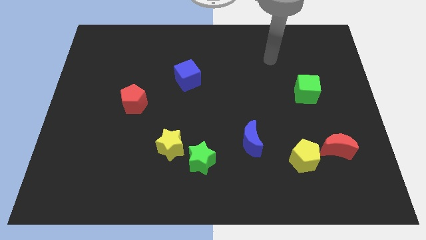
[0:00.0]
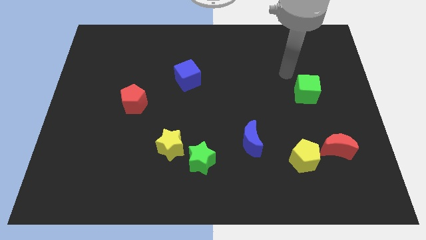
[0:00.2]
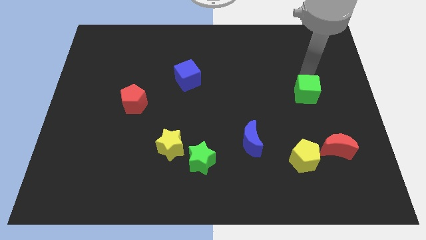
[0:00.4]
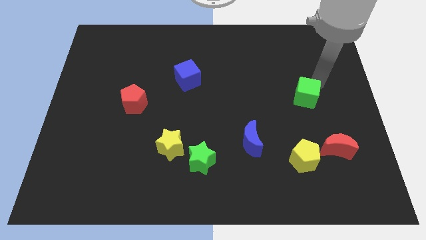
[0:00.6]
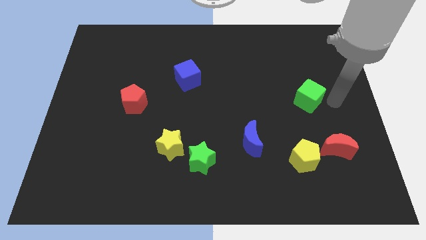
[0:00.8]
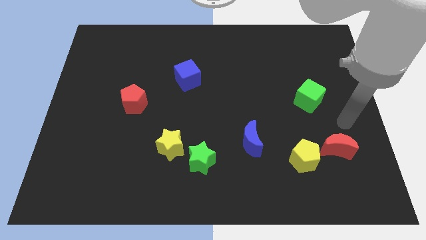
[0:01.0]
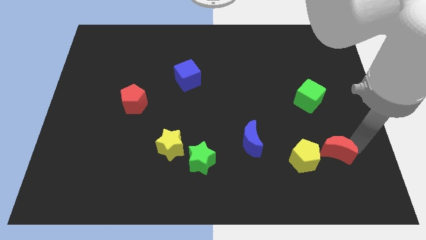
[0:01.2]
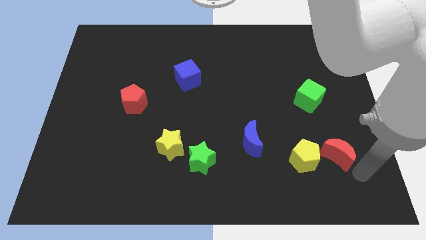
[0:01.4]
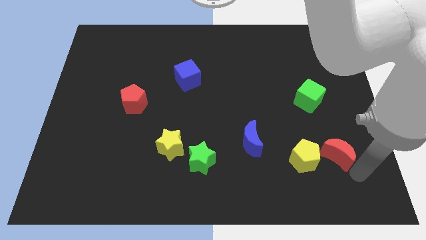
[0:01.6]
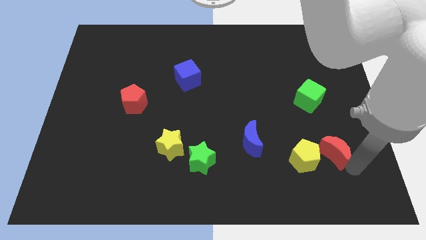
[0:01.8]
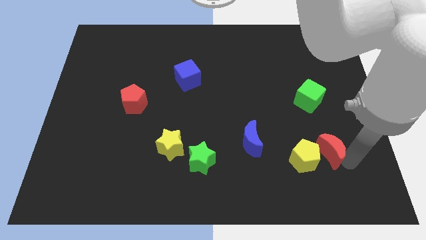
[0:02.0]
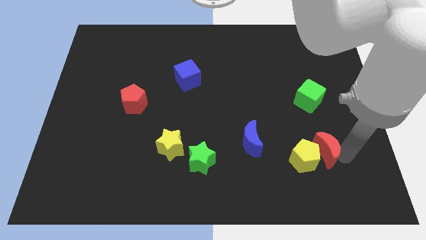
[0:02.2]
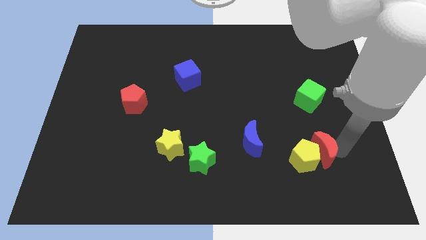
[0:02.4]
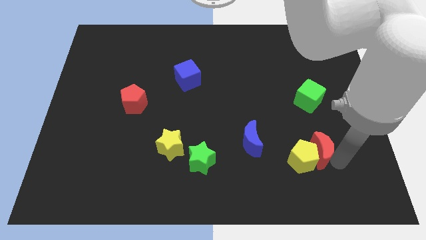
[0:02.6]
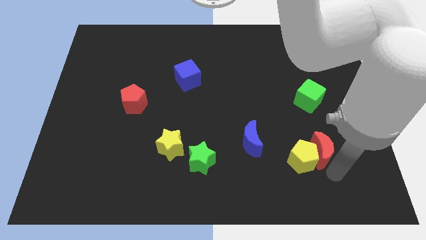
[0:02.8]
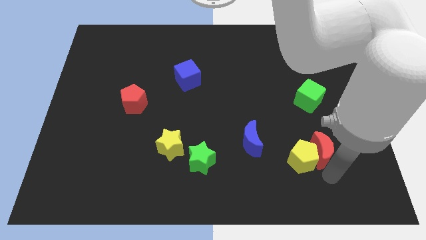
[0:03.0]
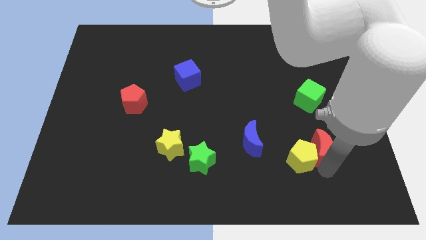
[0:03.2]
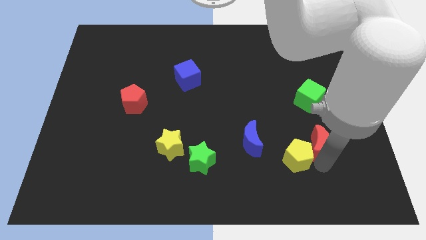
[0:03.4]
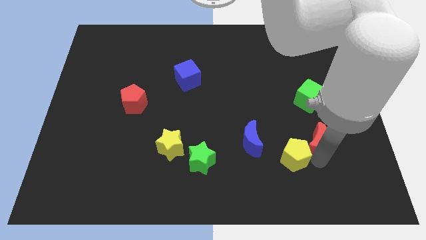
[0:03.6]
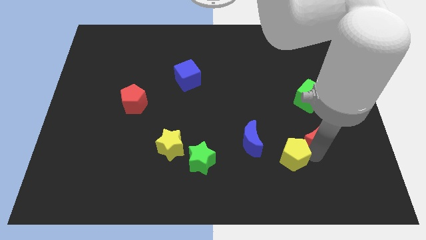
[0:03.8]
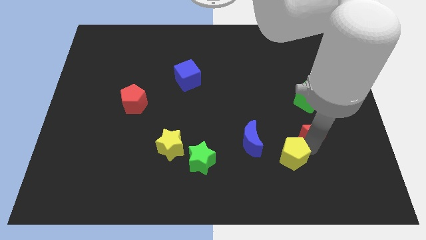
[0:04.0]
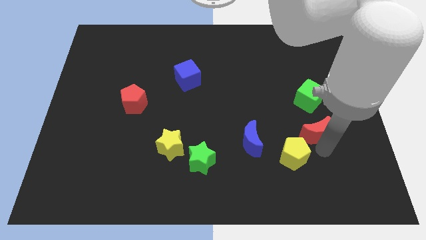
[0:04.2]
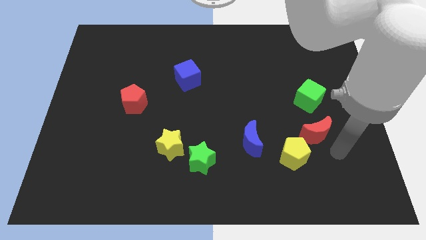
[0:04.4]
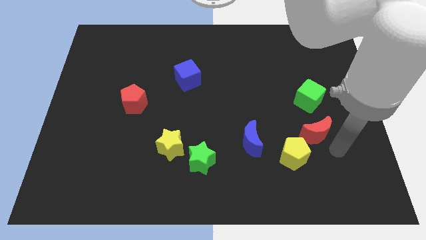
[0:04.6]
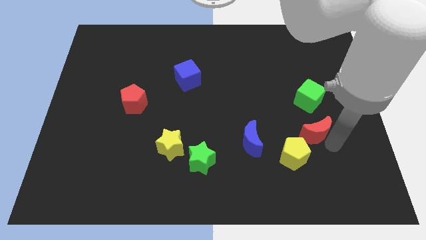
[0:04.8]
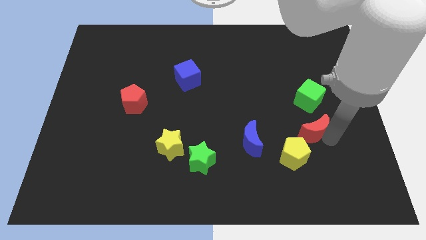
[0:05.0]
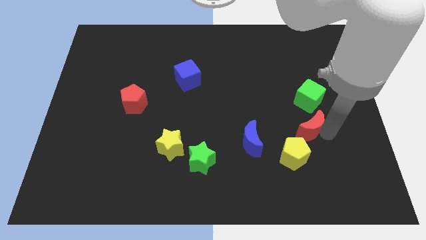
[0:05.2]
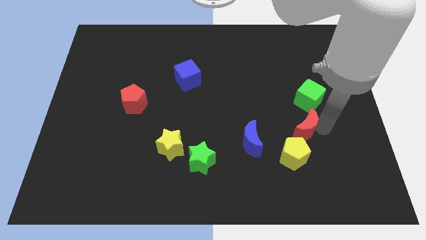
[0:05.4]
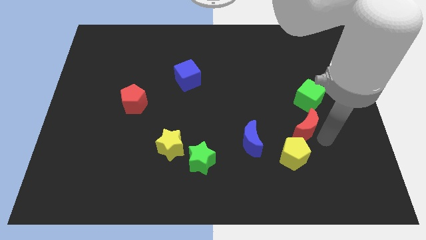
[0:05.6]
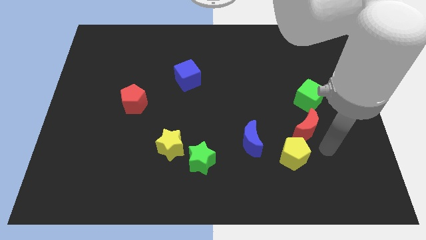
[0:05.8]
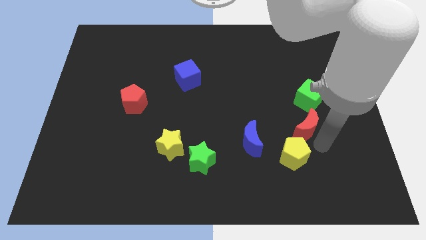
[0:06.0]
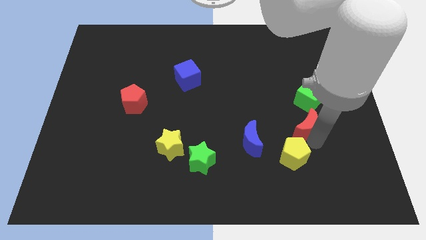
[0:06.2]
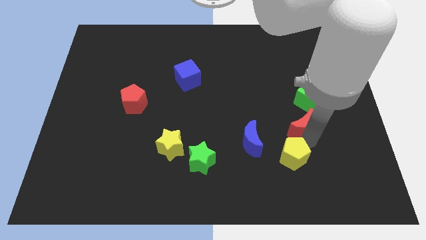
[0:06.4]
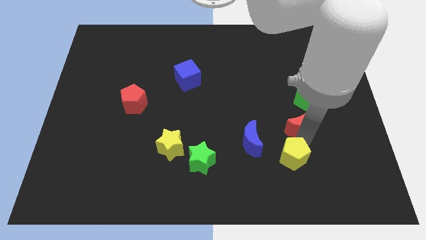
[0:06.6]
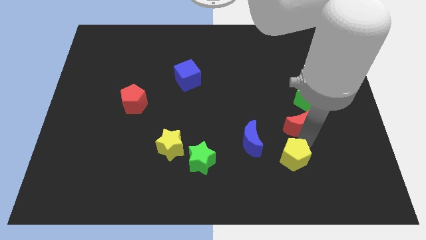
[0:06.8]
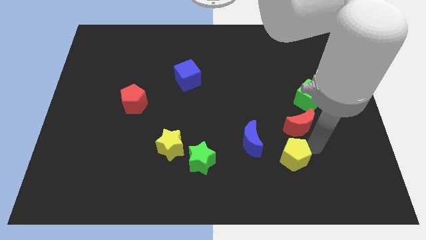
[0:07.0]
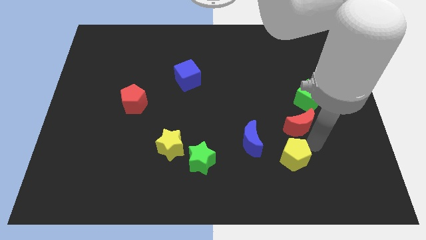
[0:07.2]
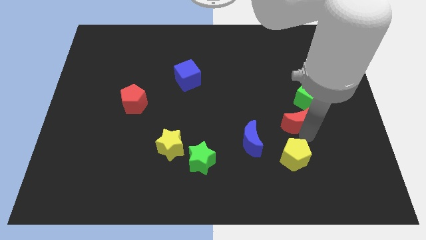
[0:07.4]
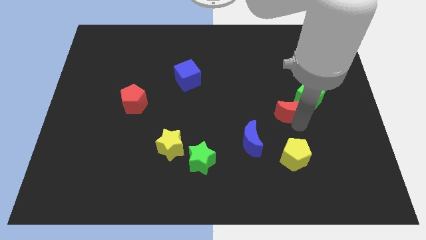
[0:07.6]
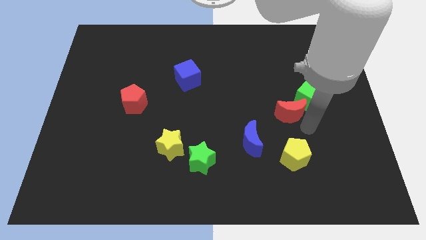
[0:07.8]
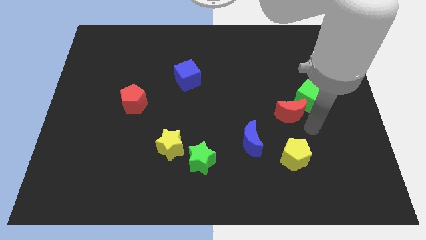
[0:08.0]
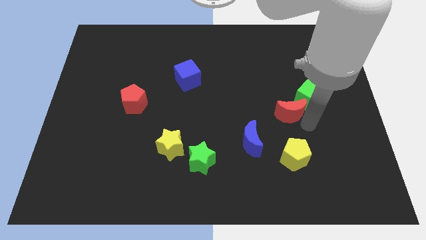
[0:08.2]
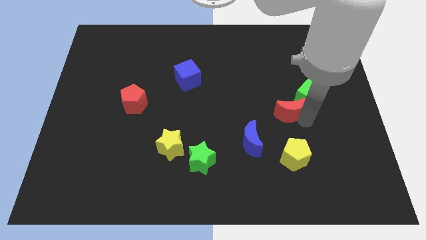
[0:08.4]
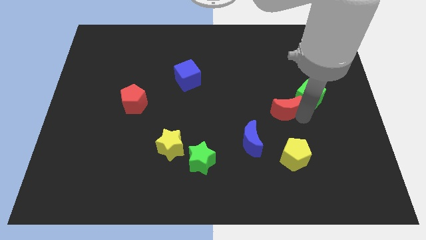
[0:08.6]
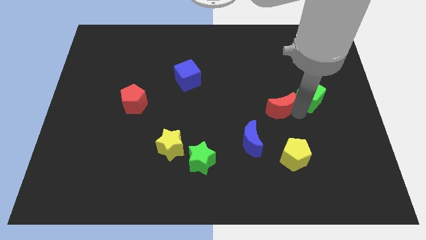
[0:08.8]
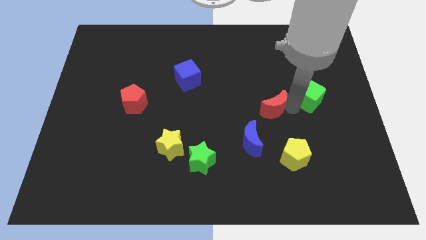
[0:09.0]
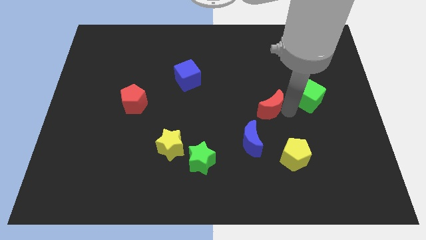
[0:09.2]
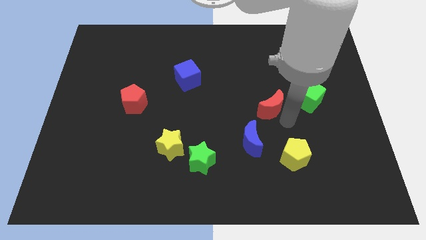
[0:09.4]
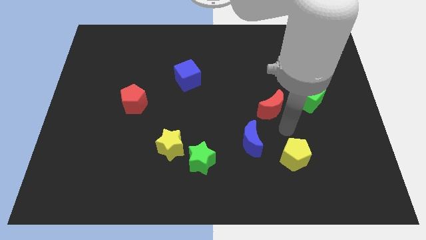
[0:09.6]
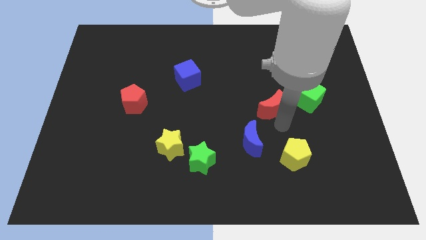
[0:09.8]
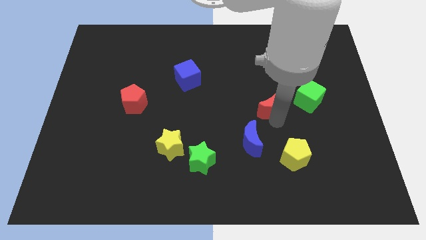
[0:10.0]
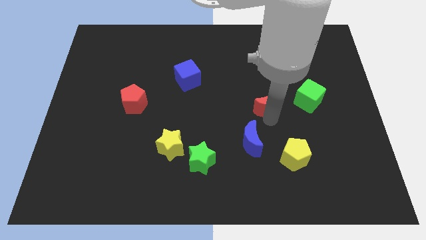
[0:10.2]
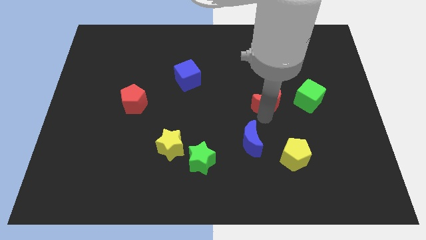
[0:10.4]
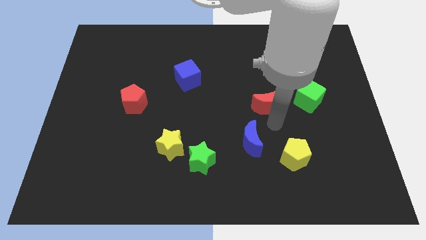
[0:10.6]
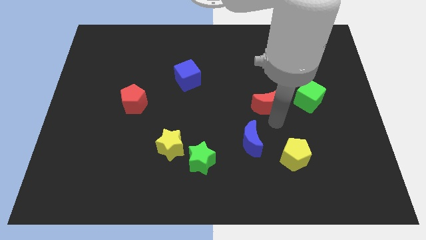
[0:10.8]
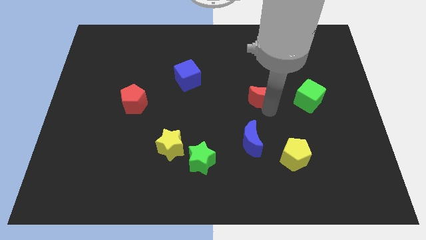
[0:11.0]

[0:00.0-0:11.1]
slide the red moon diagonally upwards and to the left

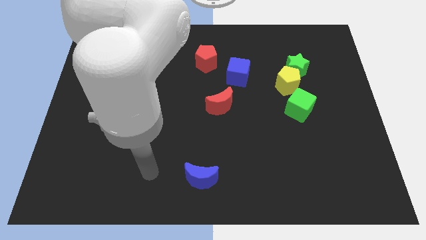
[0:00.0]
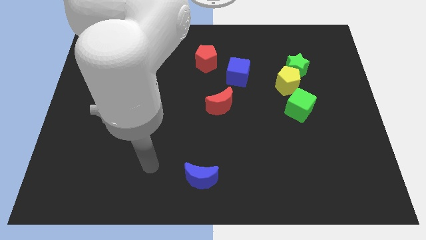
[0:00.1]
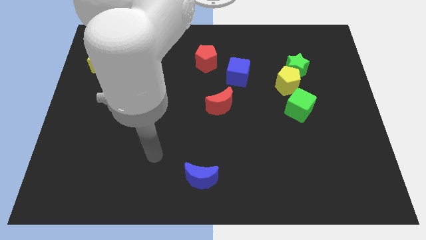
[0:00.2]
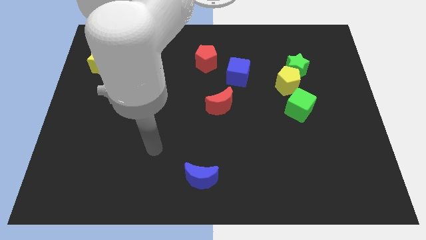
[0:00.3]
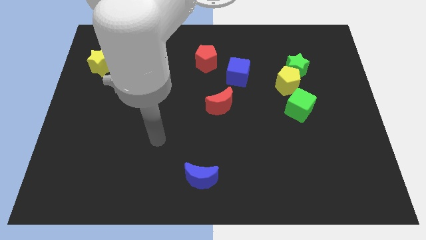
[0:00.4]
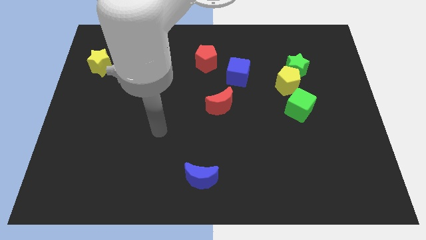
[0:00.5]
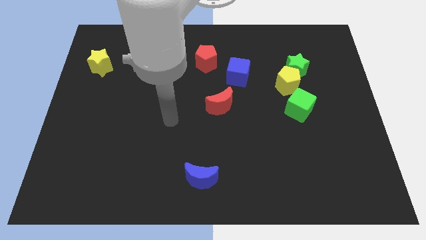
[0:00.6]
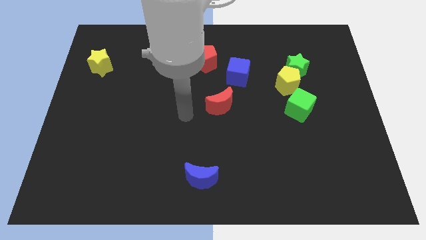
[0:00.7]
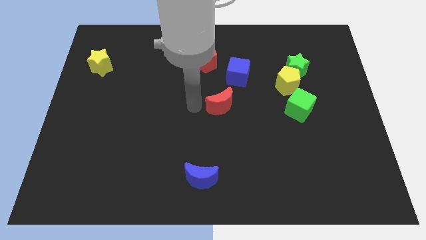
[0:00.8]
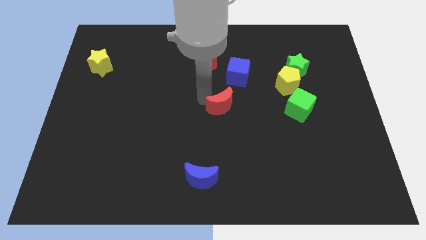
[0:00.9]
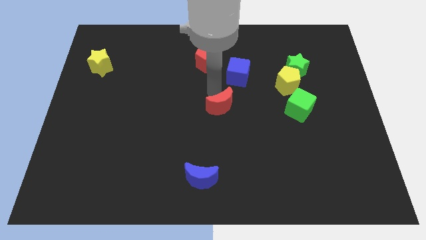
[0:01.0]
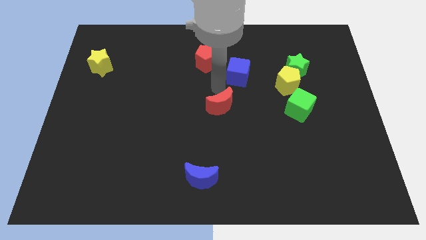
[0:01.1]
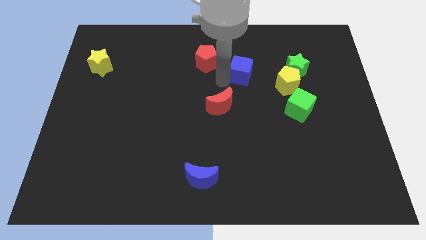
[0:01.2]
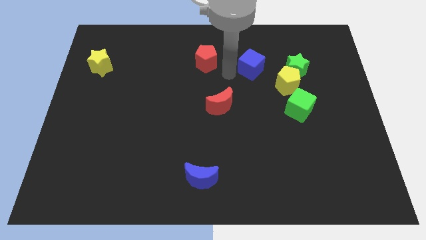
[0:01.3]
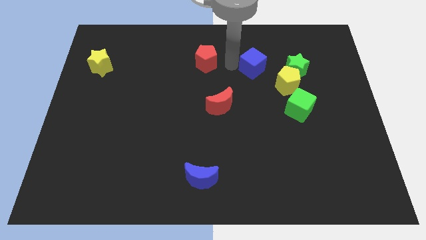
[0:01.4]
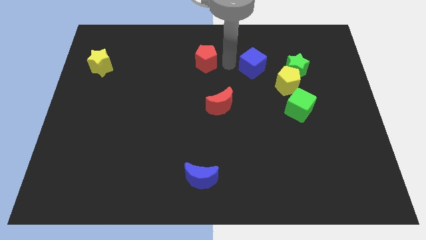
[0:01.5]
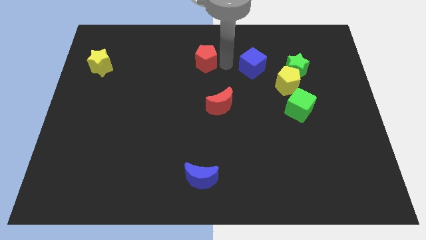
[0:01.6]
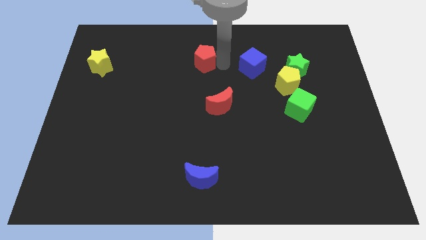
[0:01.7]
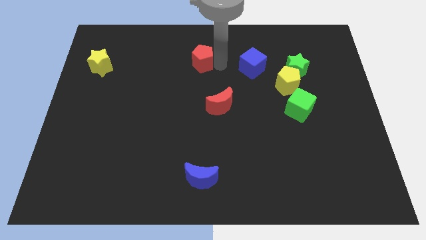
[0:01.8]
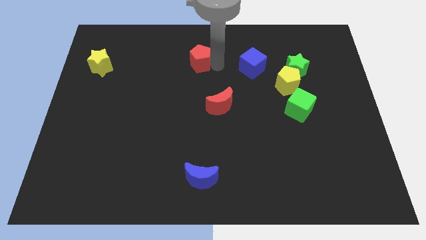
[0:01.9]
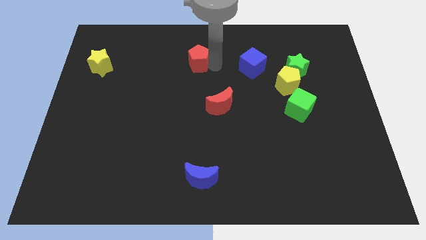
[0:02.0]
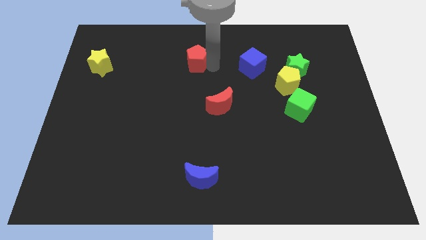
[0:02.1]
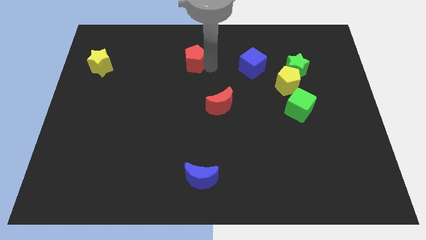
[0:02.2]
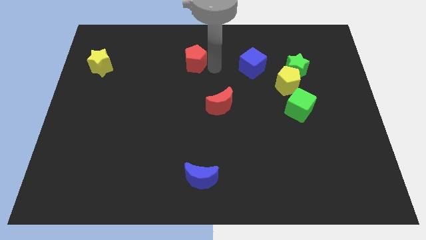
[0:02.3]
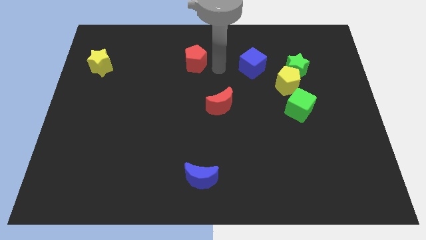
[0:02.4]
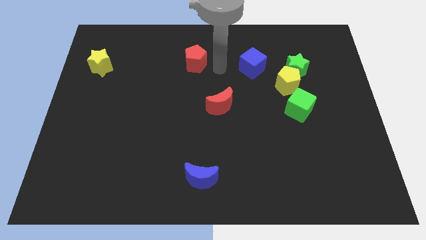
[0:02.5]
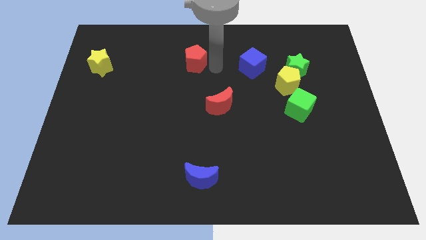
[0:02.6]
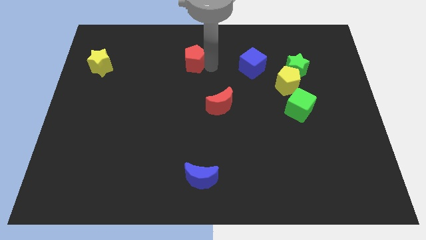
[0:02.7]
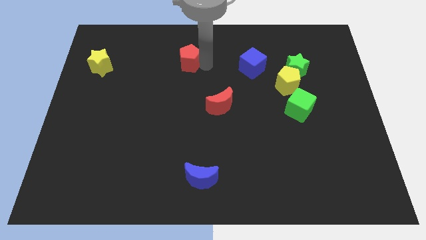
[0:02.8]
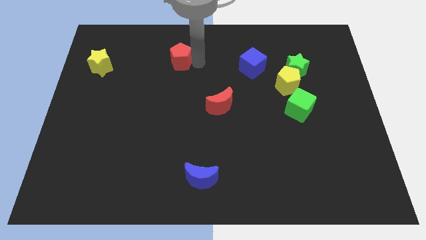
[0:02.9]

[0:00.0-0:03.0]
push the red pentagon a little bit left

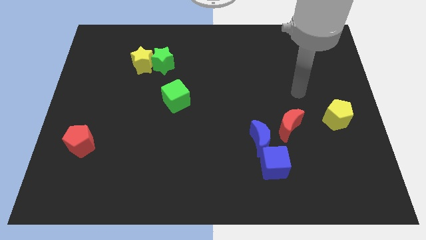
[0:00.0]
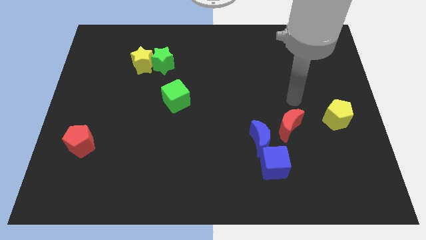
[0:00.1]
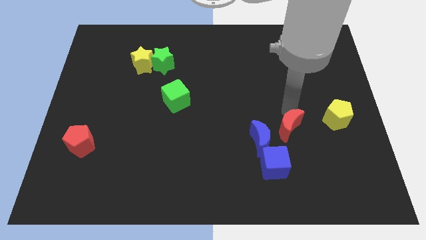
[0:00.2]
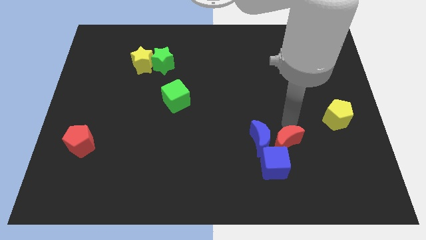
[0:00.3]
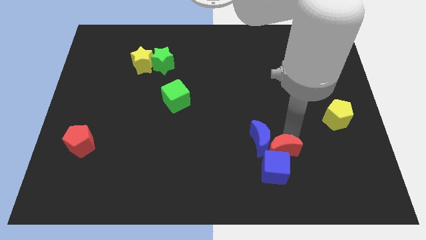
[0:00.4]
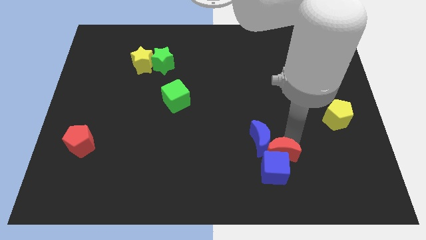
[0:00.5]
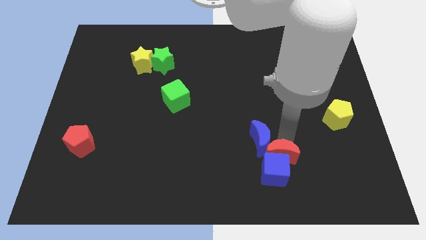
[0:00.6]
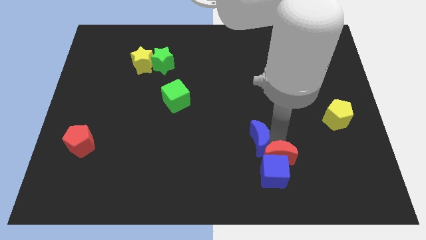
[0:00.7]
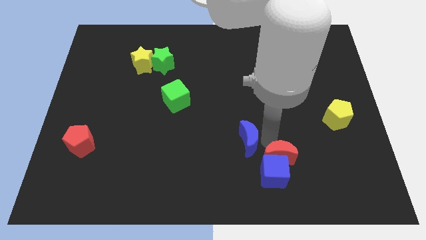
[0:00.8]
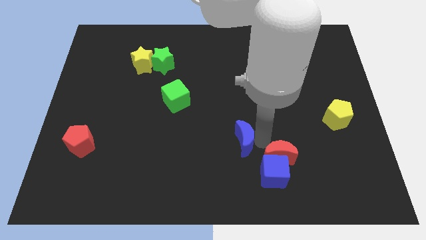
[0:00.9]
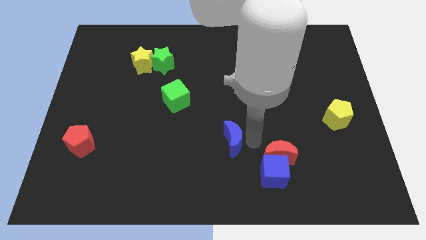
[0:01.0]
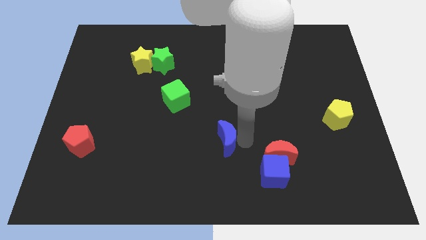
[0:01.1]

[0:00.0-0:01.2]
slide the blue moon a little to the left
